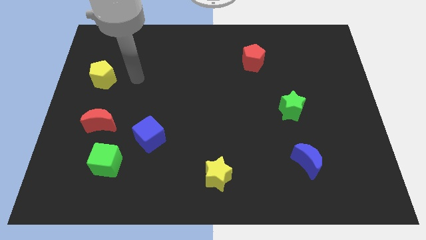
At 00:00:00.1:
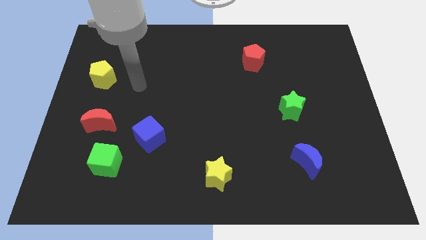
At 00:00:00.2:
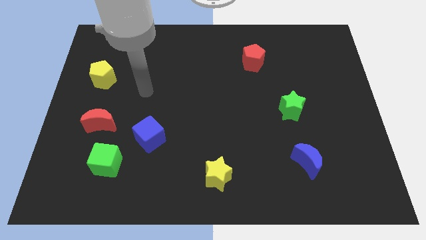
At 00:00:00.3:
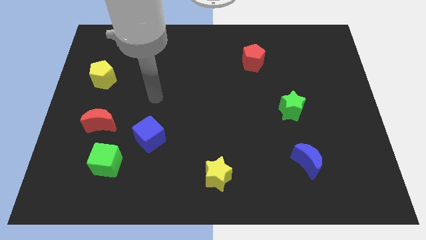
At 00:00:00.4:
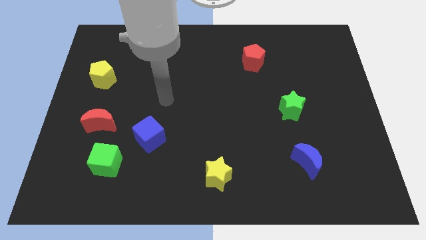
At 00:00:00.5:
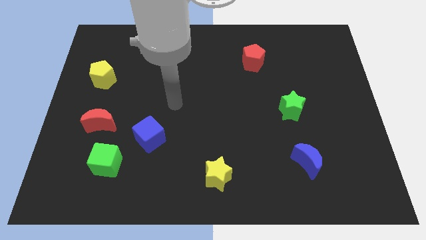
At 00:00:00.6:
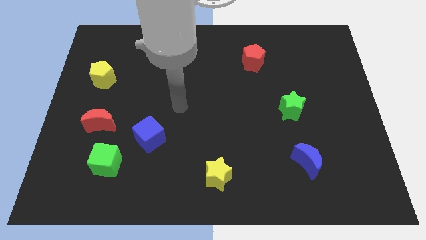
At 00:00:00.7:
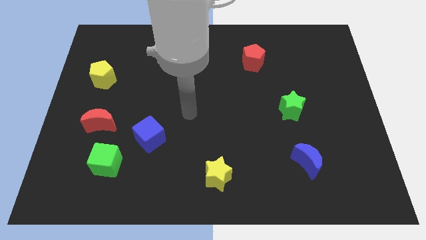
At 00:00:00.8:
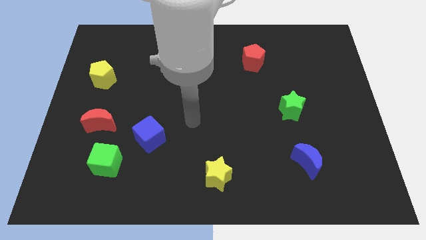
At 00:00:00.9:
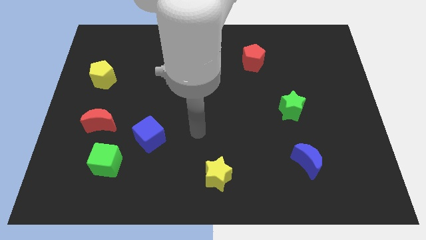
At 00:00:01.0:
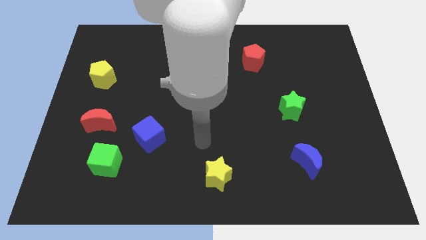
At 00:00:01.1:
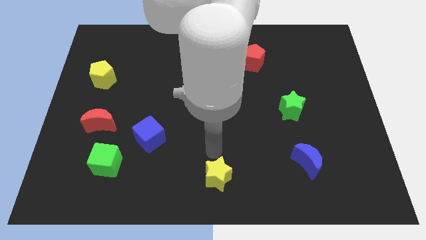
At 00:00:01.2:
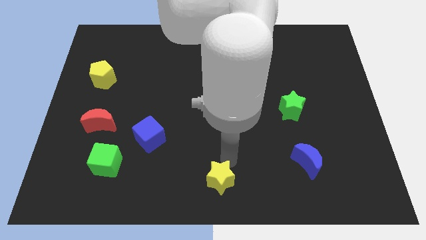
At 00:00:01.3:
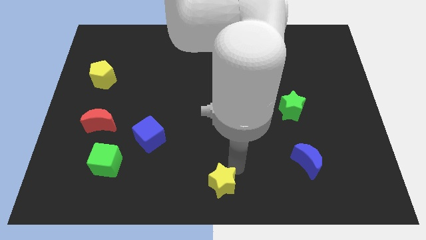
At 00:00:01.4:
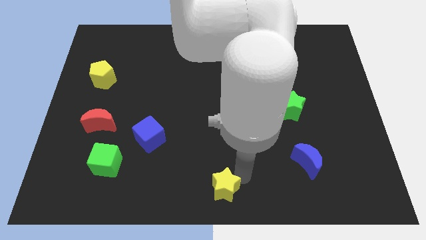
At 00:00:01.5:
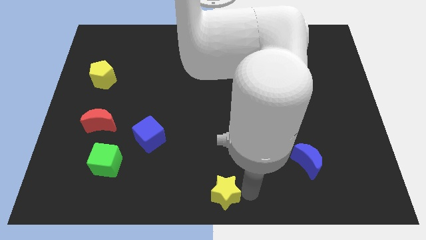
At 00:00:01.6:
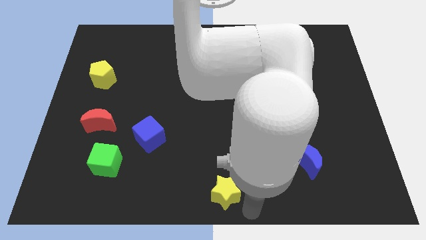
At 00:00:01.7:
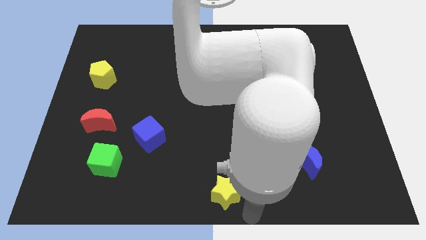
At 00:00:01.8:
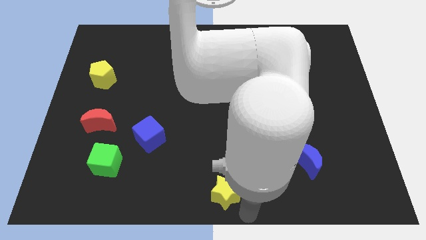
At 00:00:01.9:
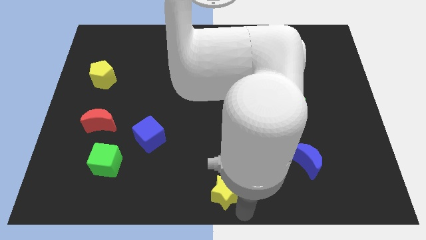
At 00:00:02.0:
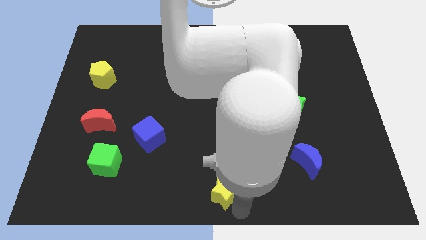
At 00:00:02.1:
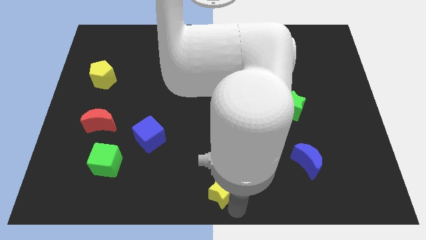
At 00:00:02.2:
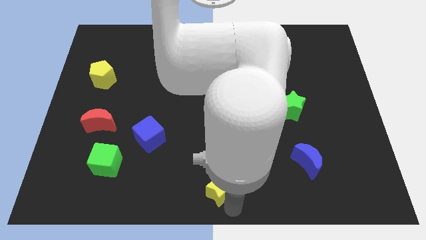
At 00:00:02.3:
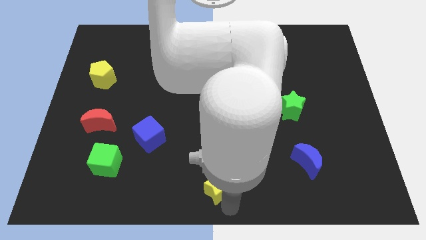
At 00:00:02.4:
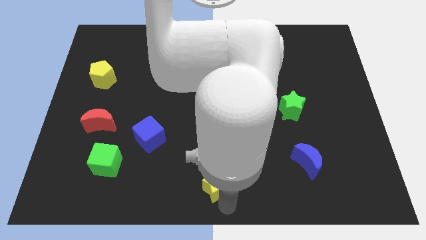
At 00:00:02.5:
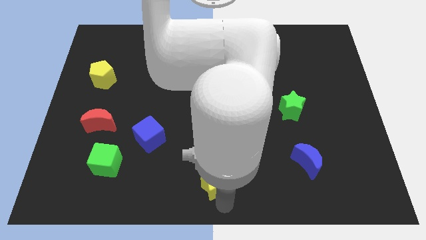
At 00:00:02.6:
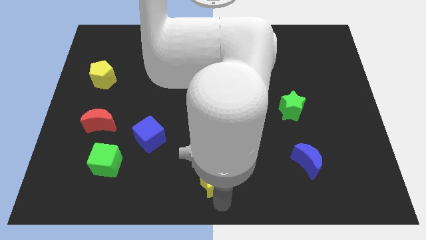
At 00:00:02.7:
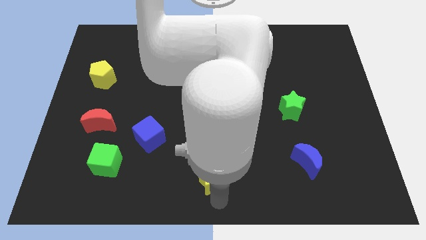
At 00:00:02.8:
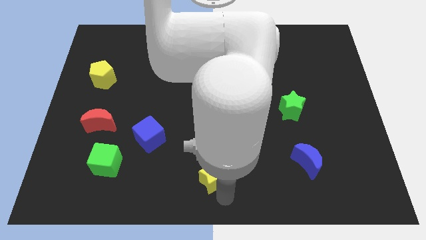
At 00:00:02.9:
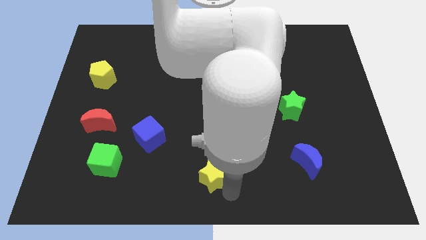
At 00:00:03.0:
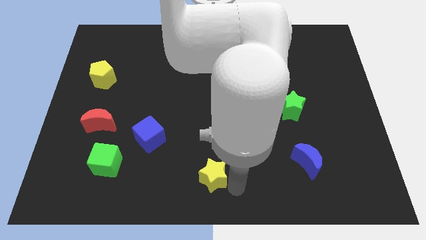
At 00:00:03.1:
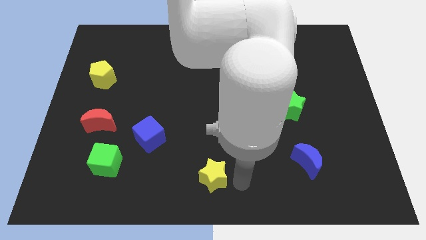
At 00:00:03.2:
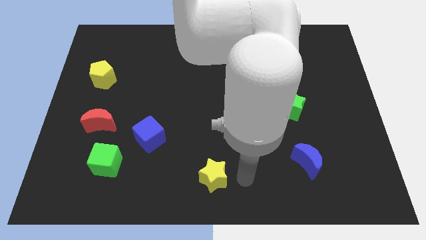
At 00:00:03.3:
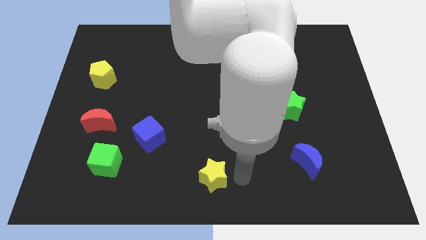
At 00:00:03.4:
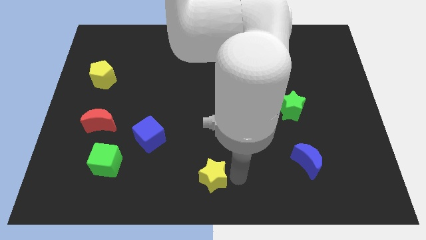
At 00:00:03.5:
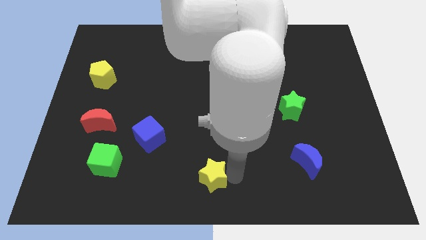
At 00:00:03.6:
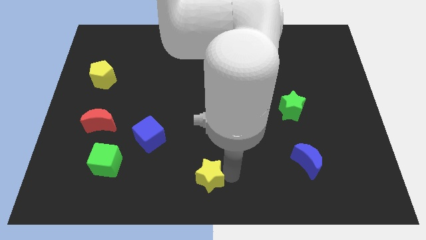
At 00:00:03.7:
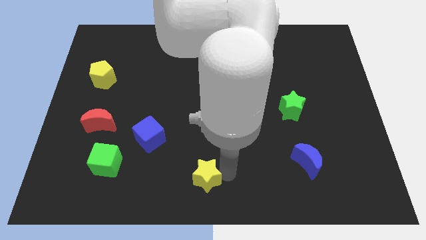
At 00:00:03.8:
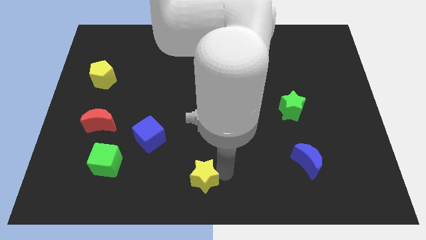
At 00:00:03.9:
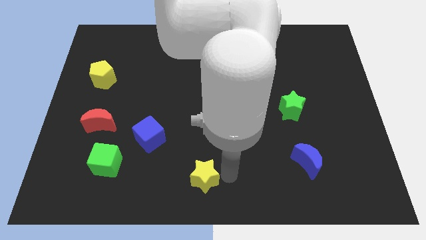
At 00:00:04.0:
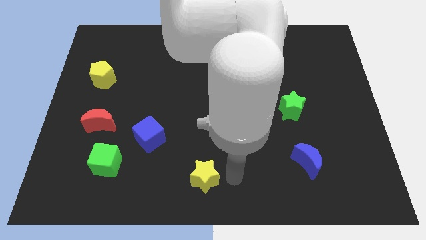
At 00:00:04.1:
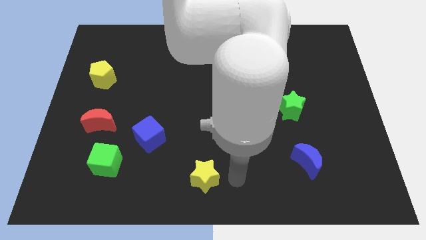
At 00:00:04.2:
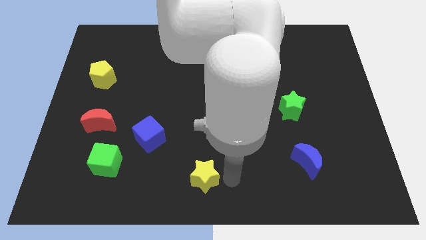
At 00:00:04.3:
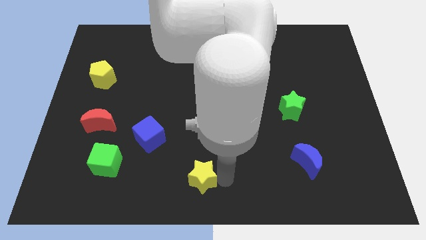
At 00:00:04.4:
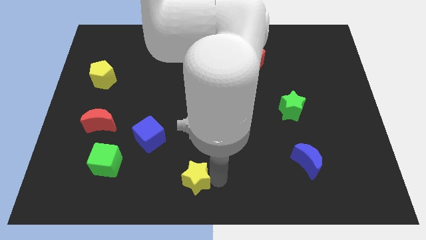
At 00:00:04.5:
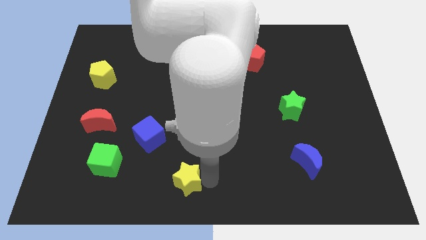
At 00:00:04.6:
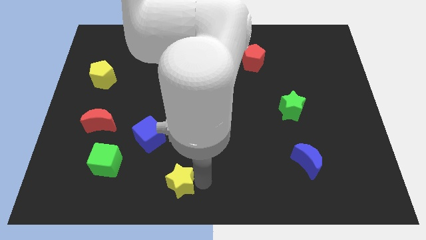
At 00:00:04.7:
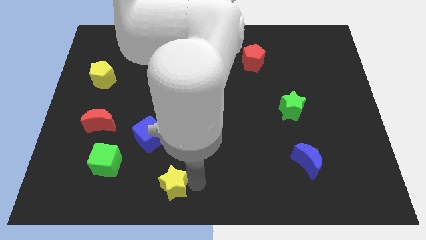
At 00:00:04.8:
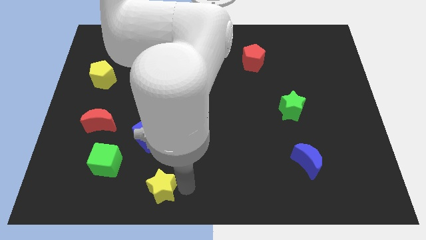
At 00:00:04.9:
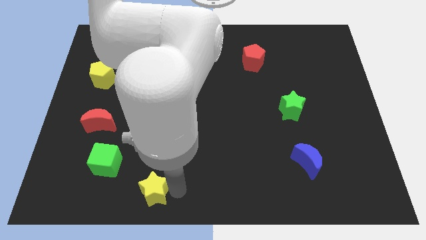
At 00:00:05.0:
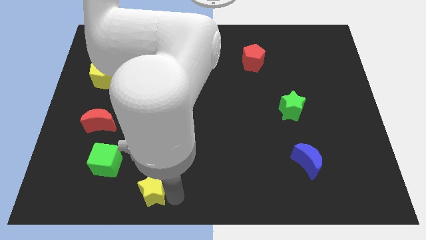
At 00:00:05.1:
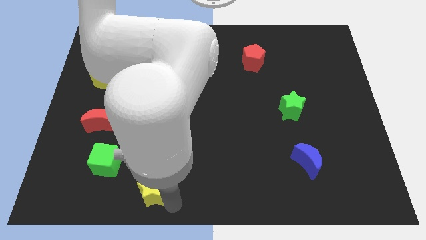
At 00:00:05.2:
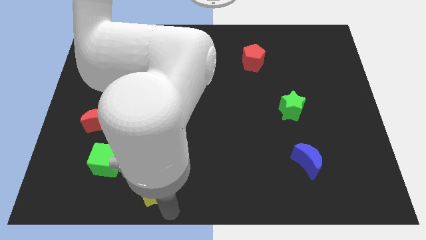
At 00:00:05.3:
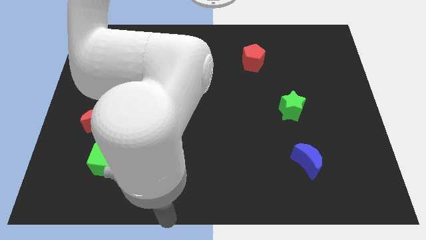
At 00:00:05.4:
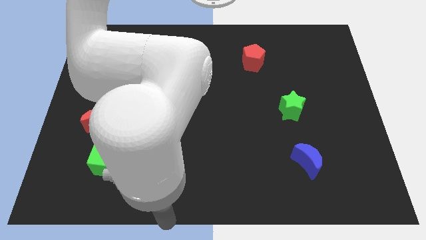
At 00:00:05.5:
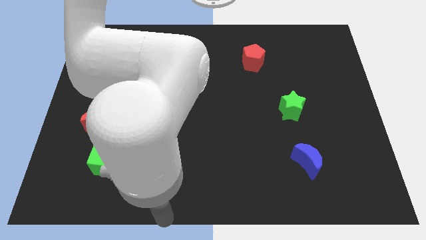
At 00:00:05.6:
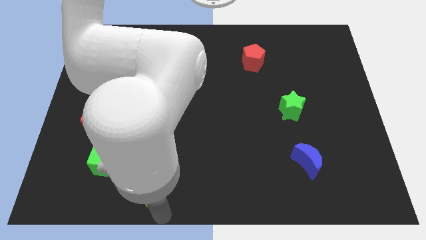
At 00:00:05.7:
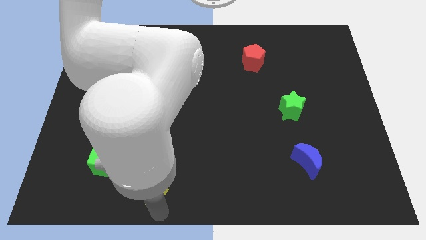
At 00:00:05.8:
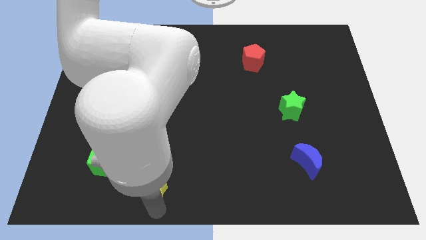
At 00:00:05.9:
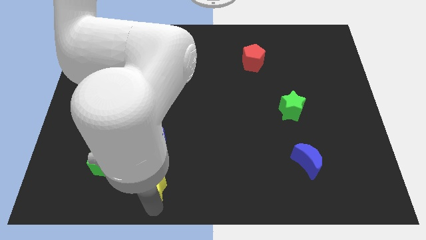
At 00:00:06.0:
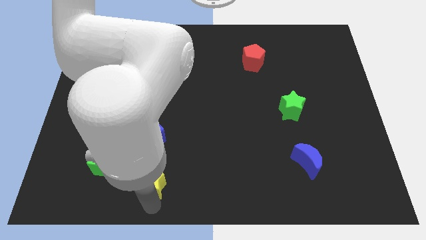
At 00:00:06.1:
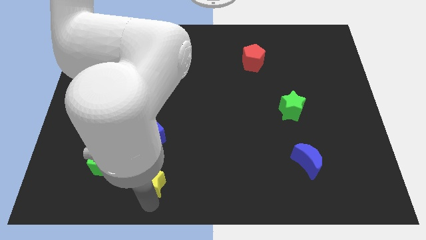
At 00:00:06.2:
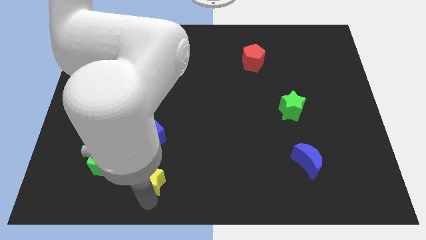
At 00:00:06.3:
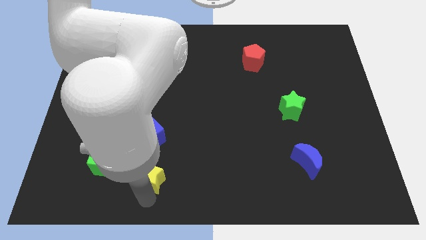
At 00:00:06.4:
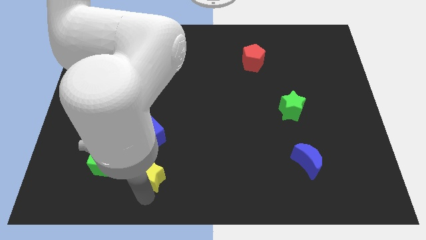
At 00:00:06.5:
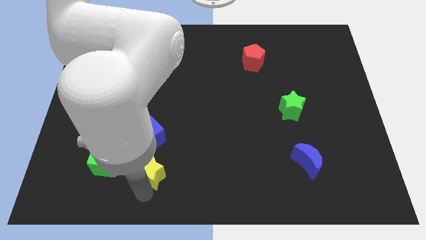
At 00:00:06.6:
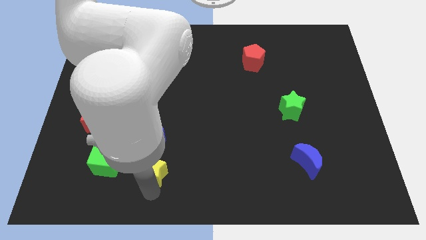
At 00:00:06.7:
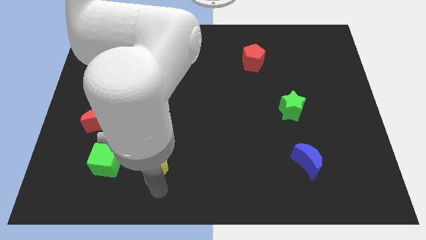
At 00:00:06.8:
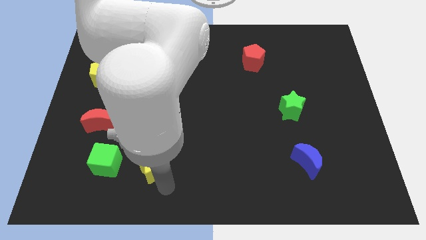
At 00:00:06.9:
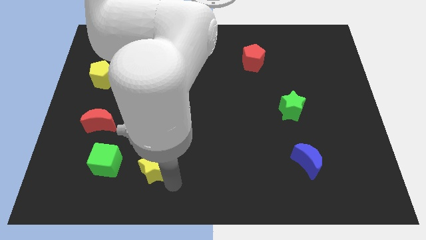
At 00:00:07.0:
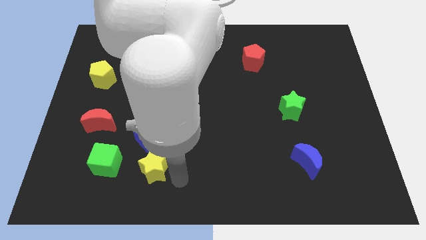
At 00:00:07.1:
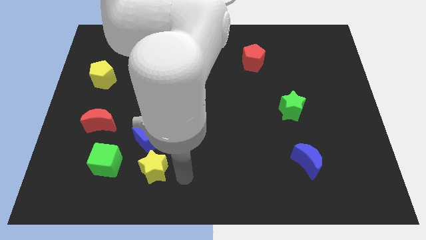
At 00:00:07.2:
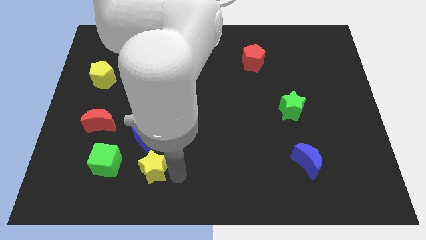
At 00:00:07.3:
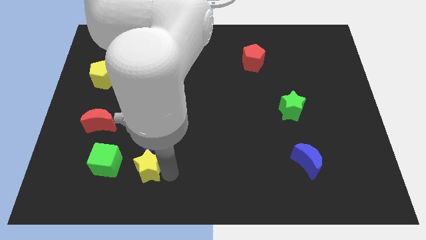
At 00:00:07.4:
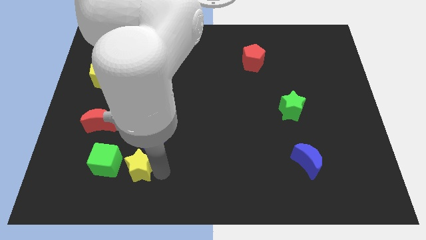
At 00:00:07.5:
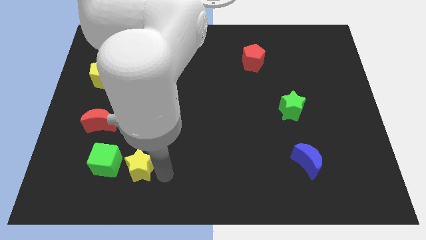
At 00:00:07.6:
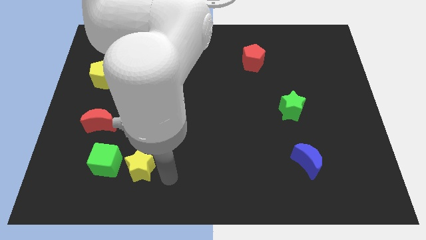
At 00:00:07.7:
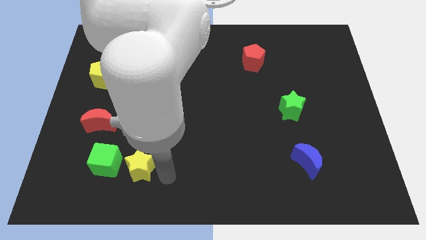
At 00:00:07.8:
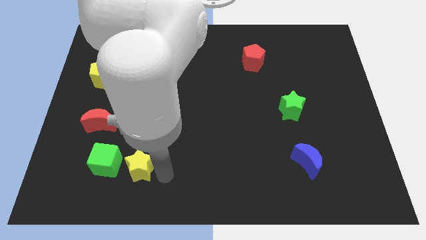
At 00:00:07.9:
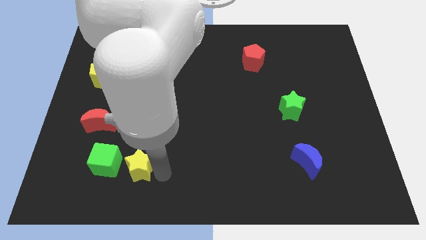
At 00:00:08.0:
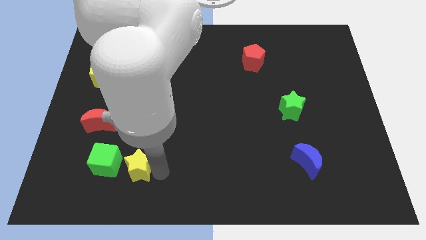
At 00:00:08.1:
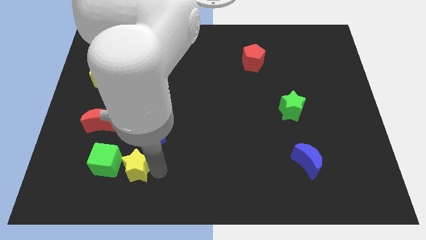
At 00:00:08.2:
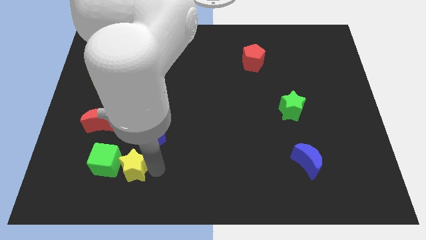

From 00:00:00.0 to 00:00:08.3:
put the yellow star close to the green cube
